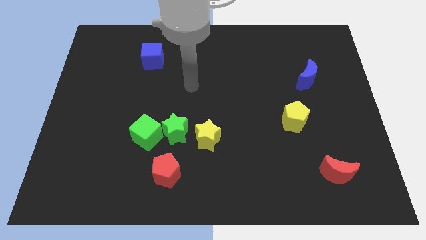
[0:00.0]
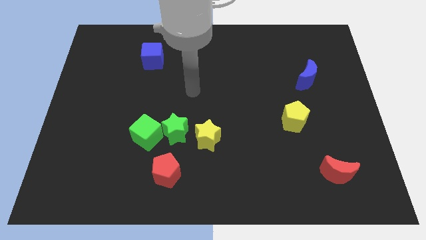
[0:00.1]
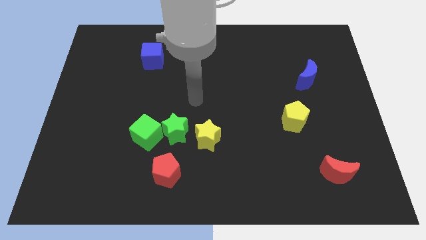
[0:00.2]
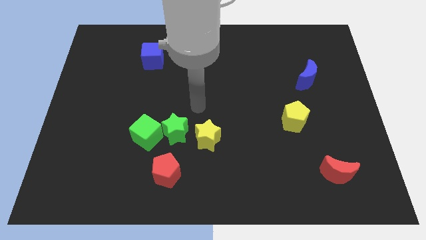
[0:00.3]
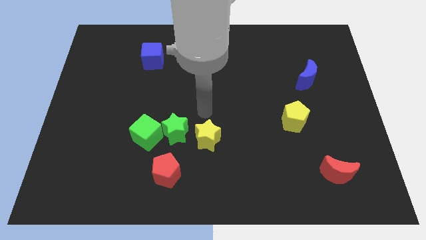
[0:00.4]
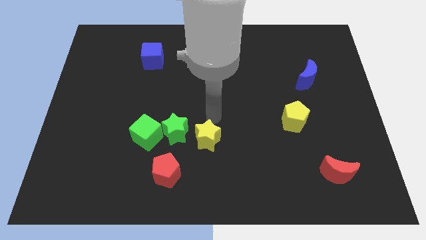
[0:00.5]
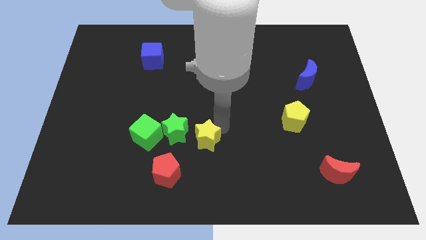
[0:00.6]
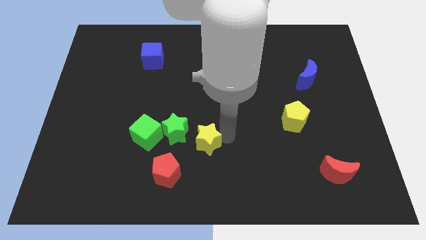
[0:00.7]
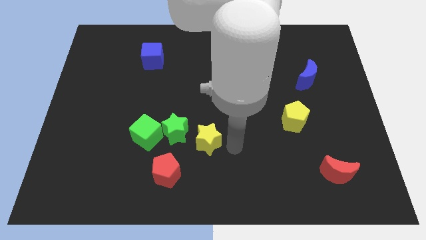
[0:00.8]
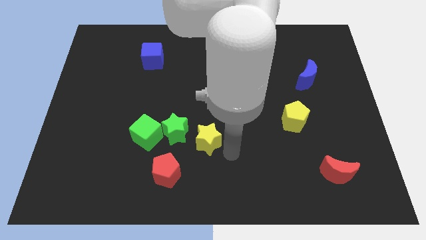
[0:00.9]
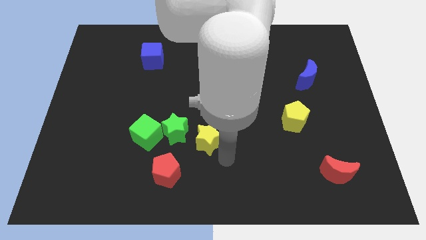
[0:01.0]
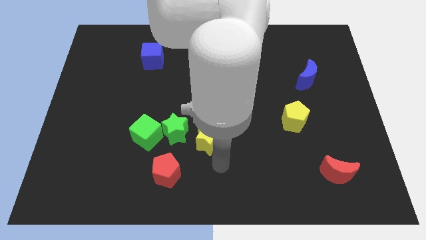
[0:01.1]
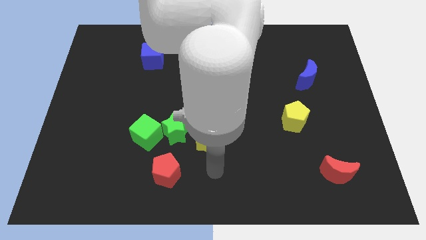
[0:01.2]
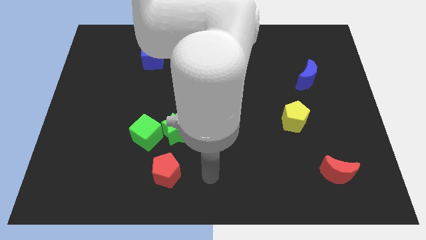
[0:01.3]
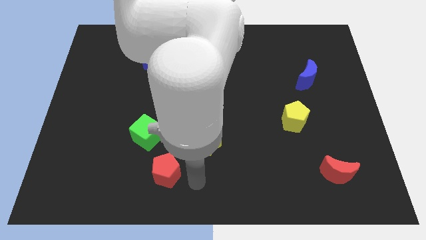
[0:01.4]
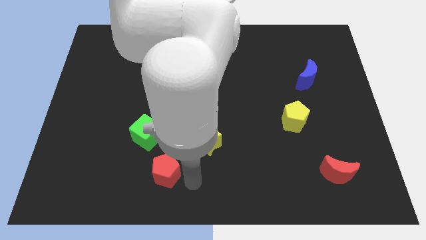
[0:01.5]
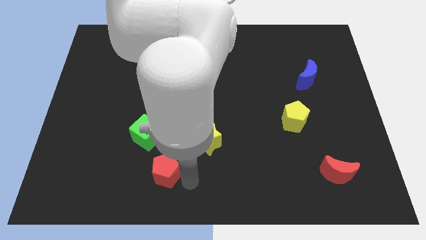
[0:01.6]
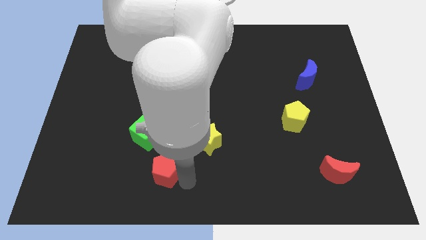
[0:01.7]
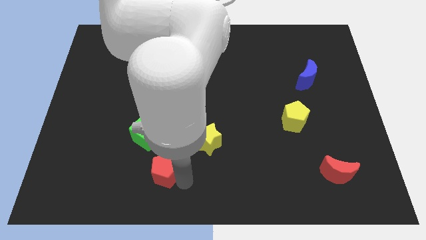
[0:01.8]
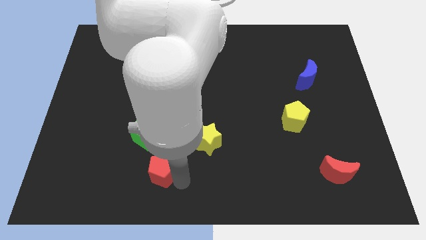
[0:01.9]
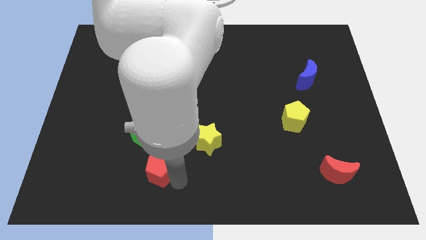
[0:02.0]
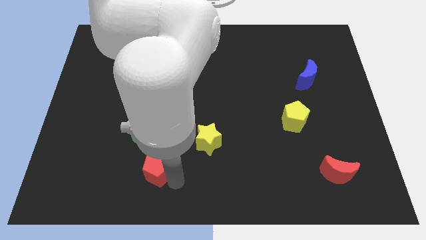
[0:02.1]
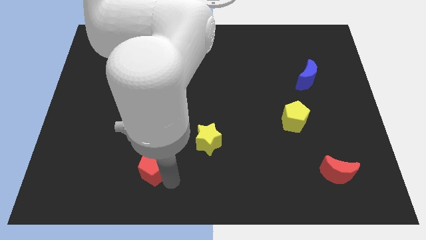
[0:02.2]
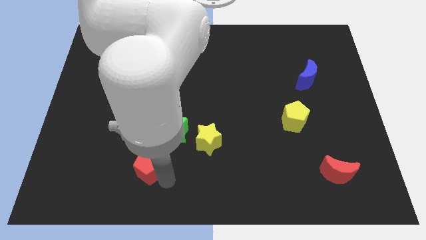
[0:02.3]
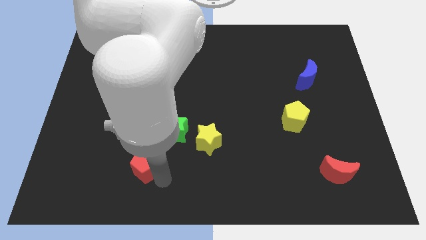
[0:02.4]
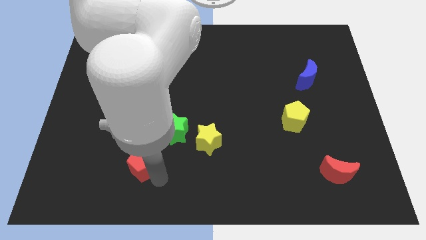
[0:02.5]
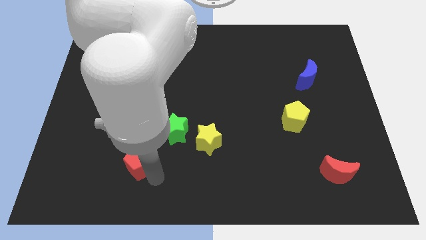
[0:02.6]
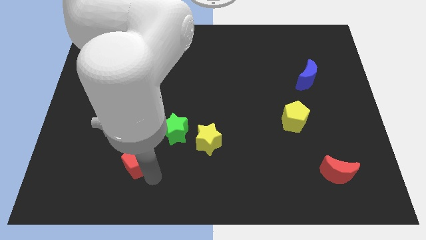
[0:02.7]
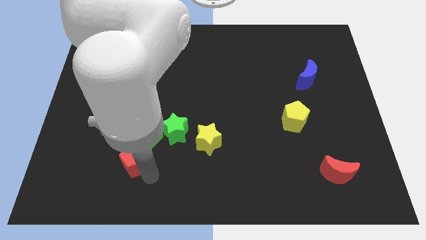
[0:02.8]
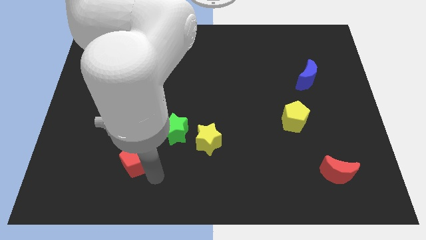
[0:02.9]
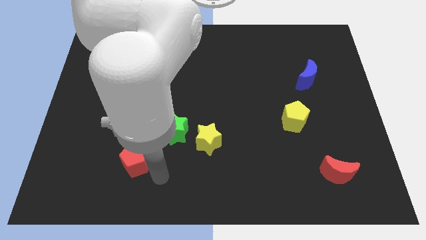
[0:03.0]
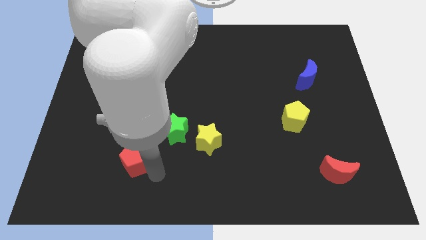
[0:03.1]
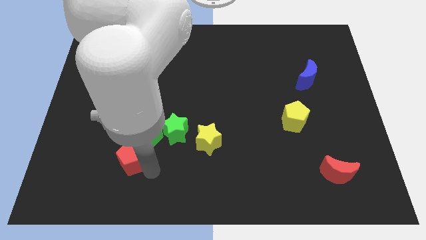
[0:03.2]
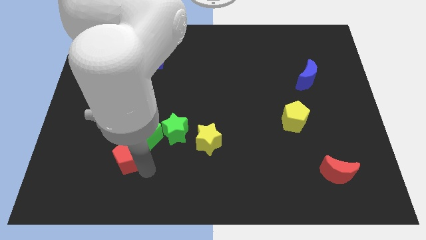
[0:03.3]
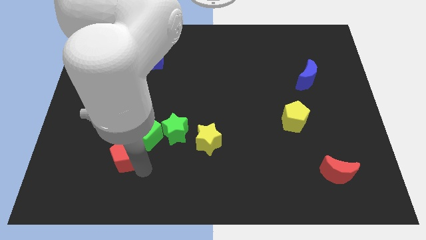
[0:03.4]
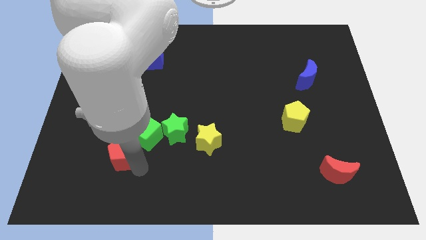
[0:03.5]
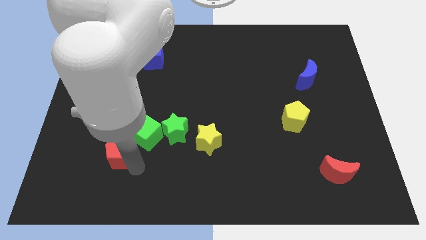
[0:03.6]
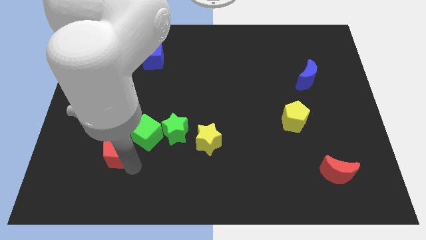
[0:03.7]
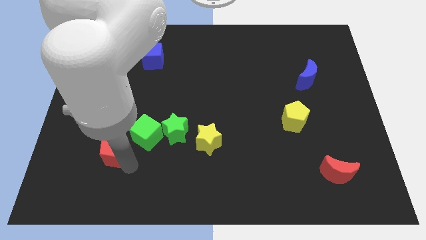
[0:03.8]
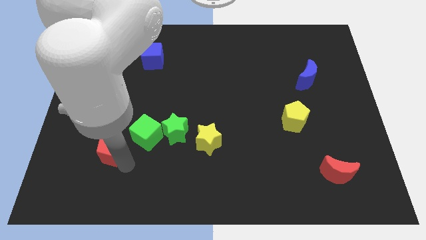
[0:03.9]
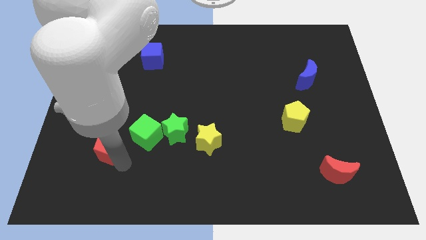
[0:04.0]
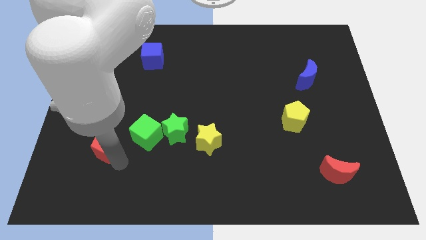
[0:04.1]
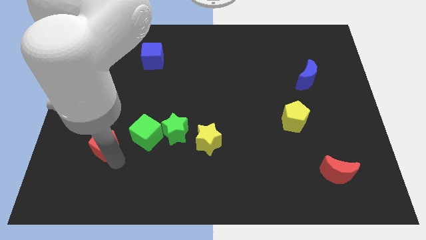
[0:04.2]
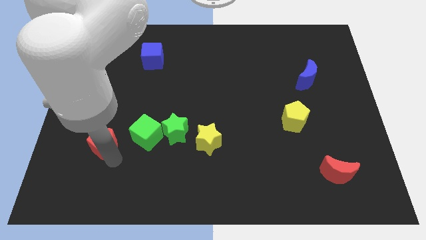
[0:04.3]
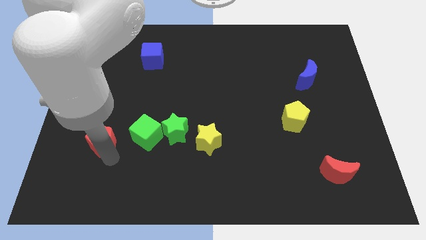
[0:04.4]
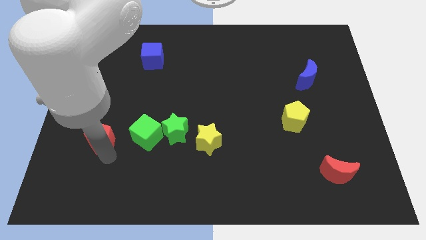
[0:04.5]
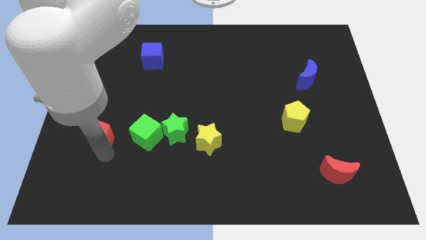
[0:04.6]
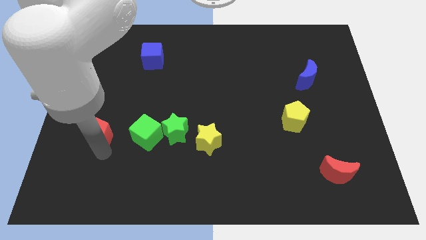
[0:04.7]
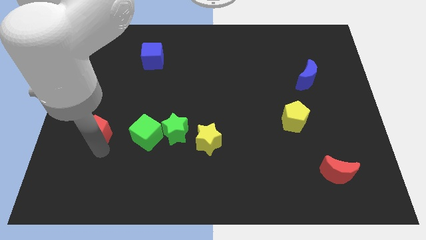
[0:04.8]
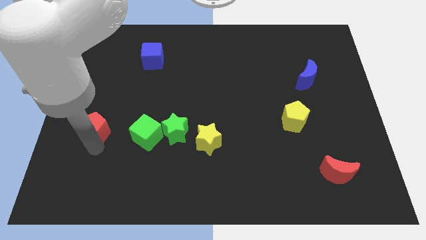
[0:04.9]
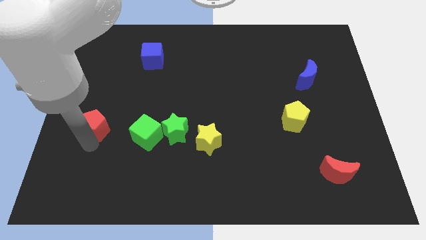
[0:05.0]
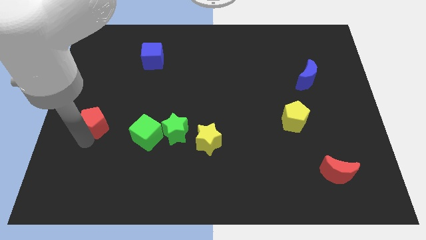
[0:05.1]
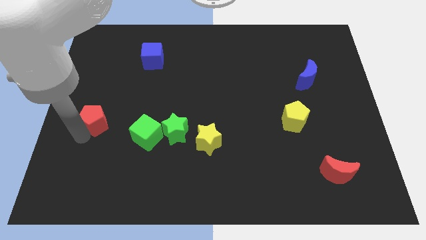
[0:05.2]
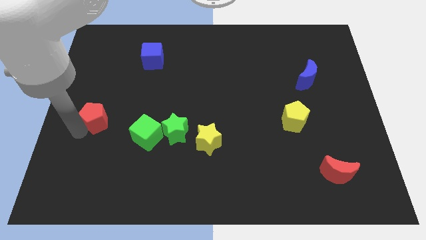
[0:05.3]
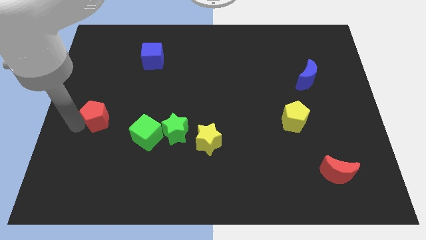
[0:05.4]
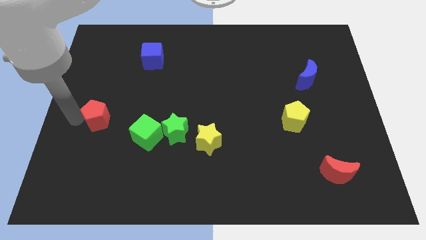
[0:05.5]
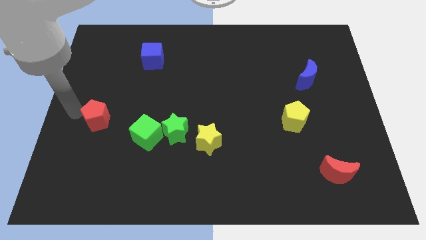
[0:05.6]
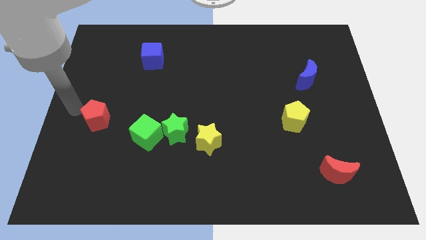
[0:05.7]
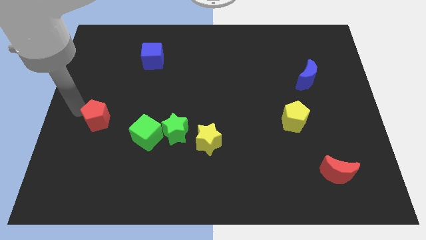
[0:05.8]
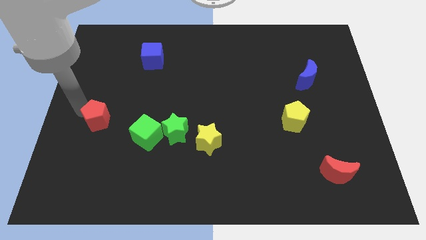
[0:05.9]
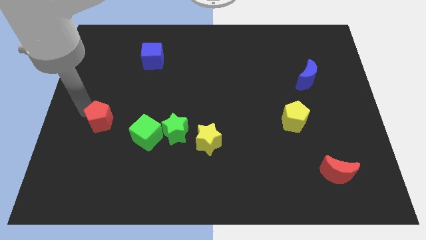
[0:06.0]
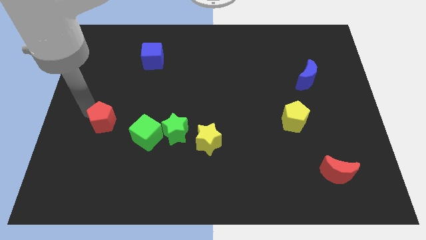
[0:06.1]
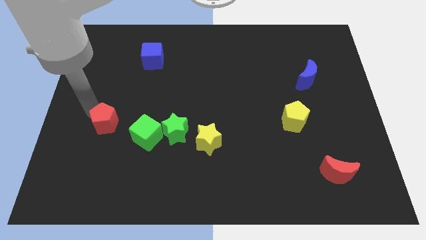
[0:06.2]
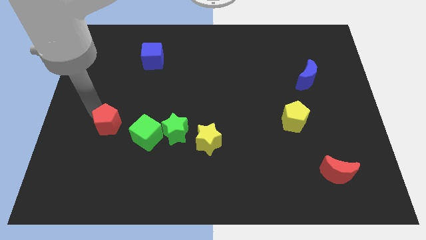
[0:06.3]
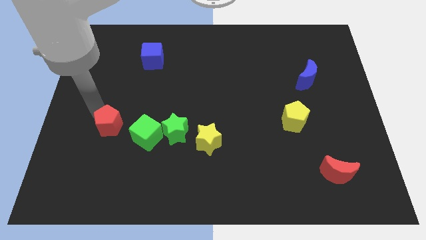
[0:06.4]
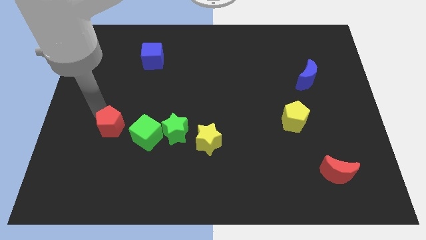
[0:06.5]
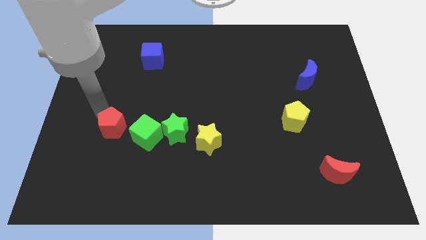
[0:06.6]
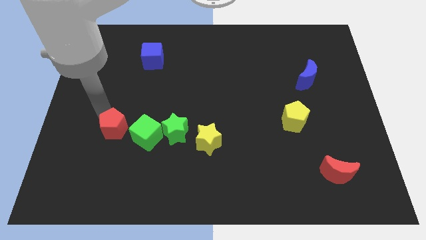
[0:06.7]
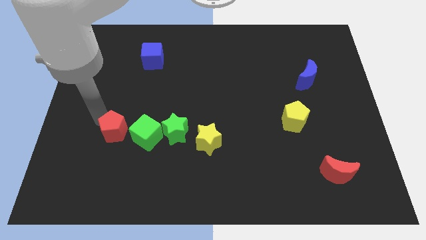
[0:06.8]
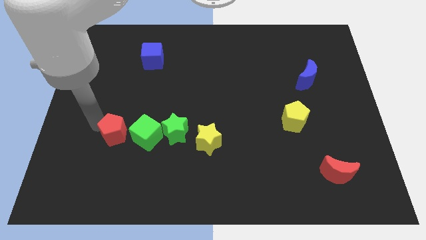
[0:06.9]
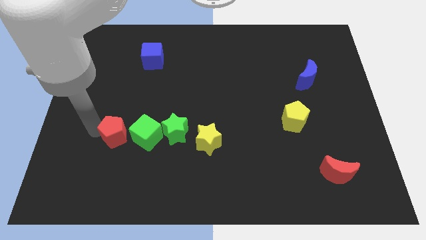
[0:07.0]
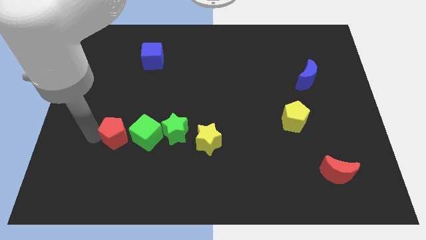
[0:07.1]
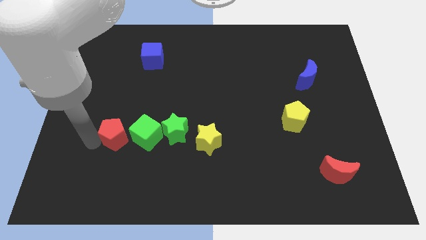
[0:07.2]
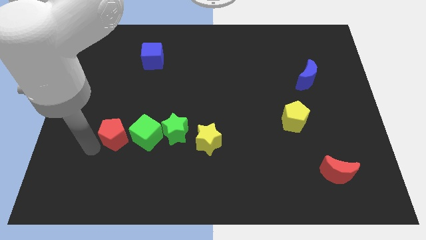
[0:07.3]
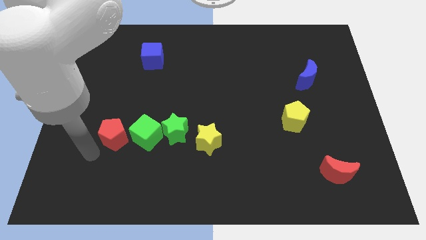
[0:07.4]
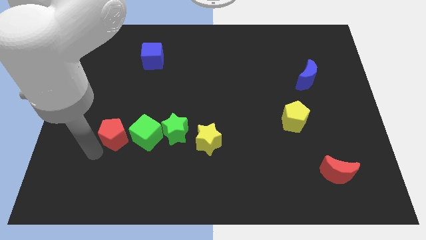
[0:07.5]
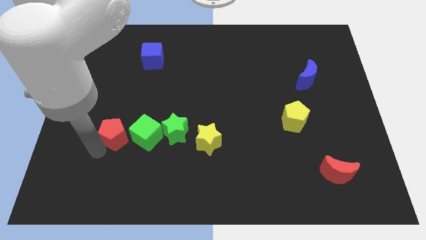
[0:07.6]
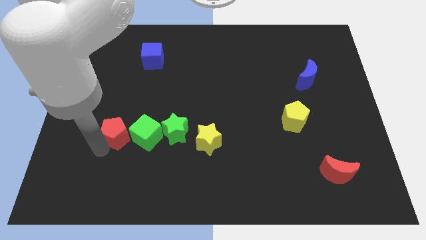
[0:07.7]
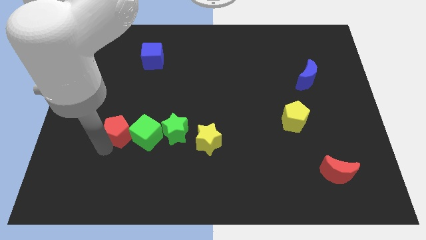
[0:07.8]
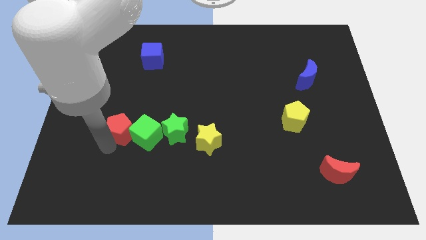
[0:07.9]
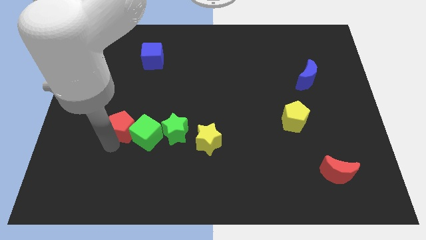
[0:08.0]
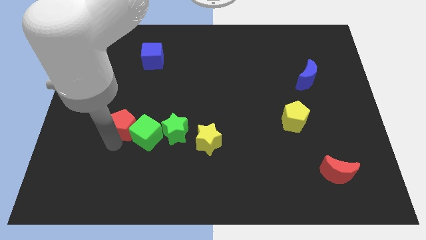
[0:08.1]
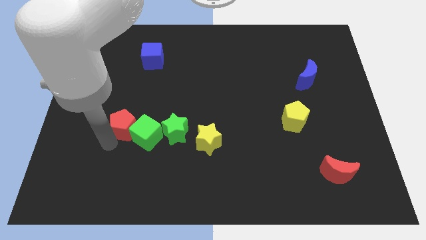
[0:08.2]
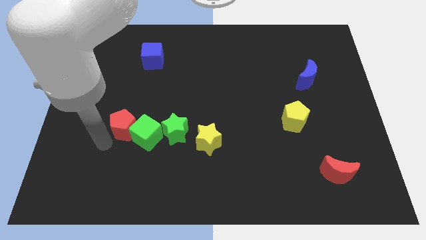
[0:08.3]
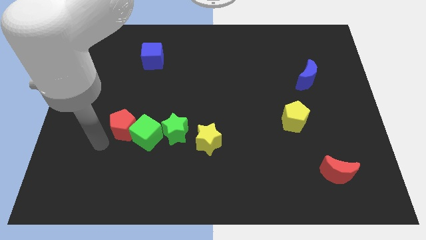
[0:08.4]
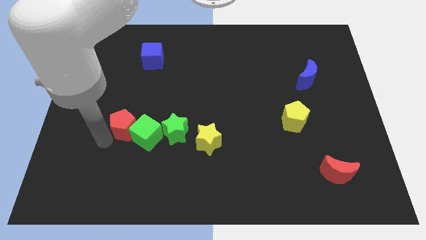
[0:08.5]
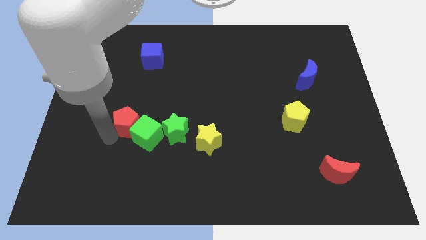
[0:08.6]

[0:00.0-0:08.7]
push the red pentagon slightly upwards

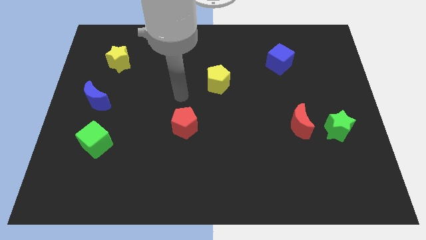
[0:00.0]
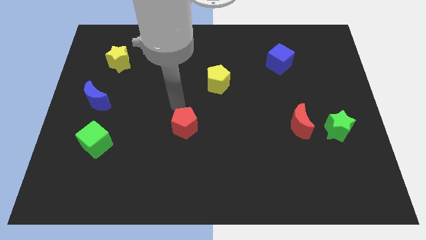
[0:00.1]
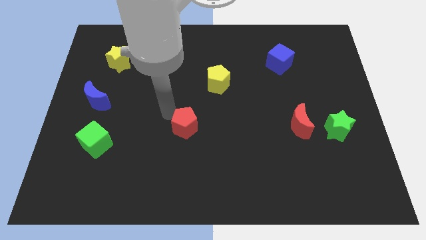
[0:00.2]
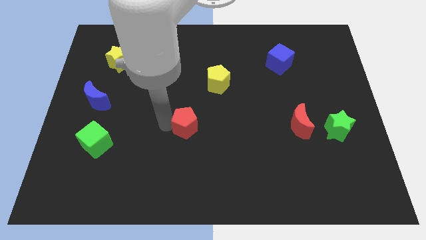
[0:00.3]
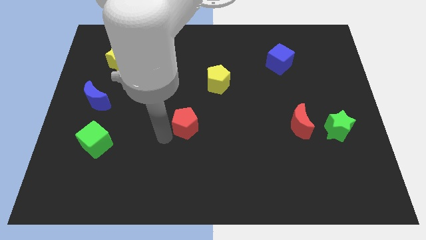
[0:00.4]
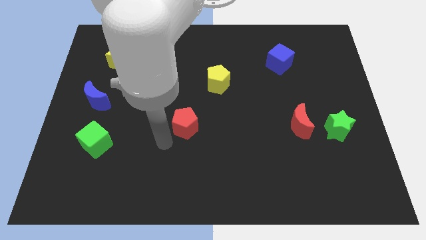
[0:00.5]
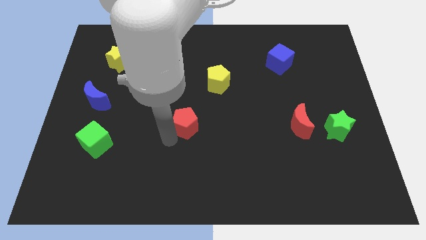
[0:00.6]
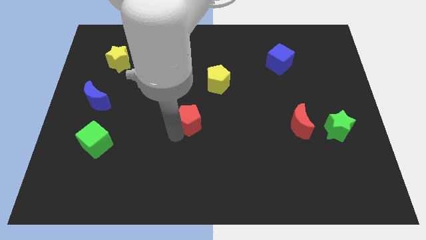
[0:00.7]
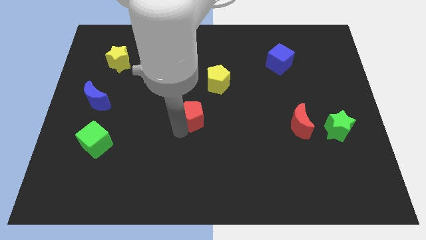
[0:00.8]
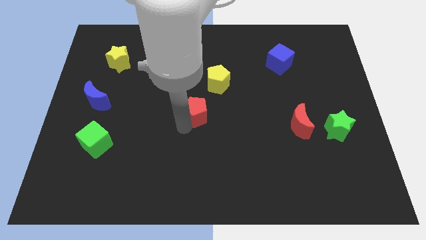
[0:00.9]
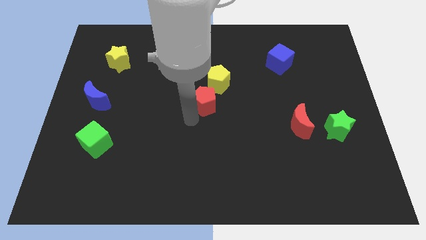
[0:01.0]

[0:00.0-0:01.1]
slightly move the red pentagon diagonally upwards and to the right
